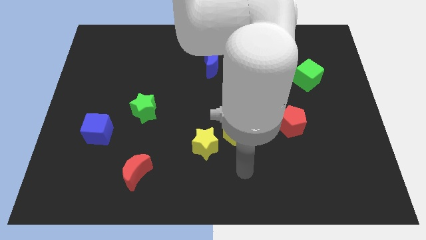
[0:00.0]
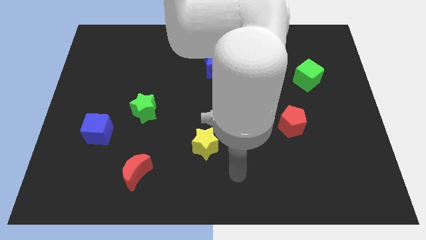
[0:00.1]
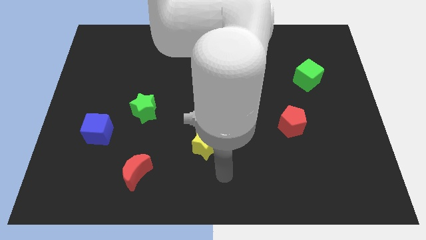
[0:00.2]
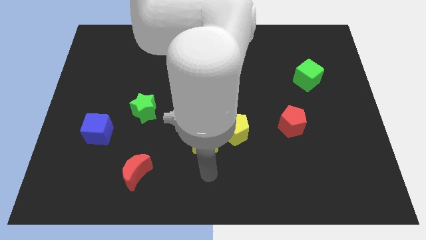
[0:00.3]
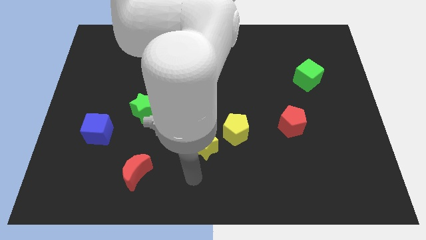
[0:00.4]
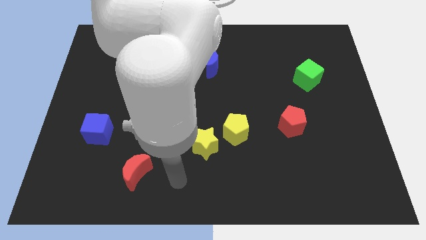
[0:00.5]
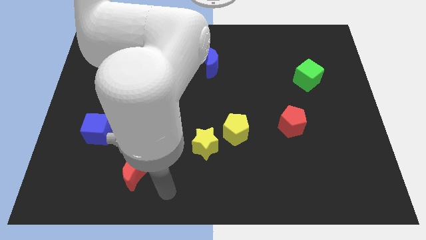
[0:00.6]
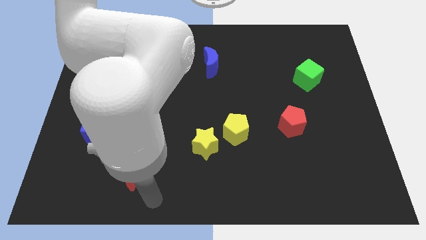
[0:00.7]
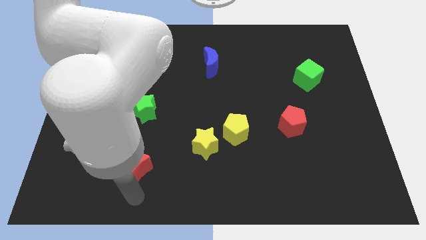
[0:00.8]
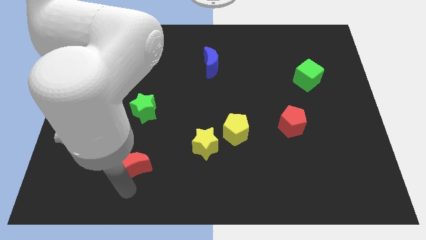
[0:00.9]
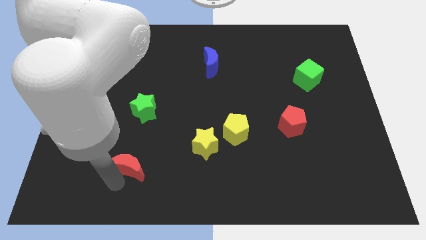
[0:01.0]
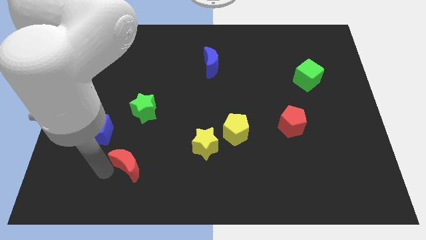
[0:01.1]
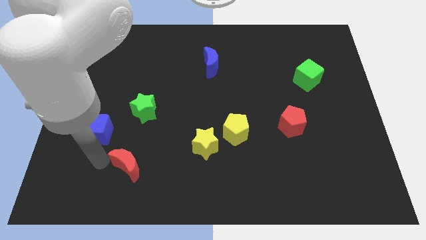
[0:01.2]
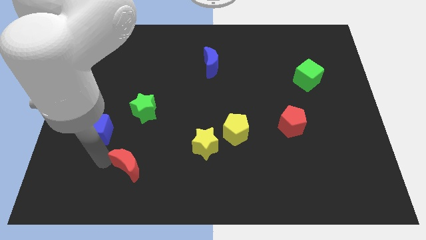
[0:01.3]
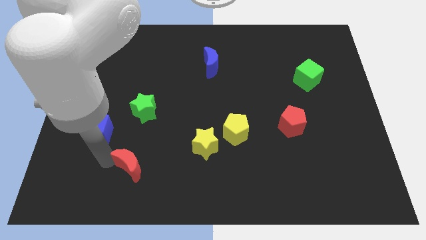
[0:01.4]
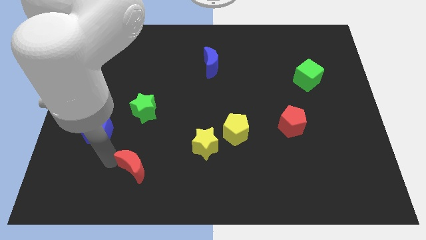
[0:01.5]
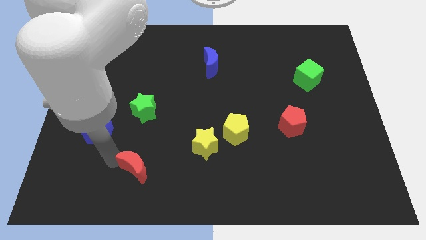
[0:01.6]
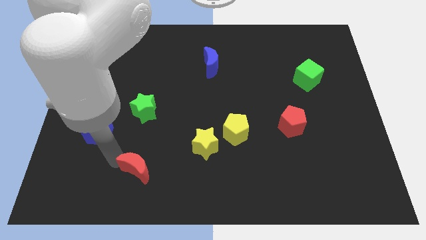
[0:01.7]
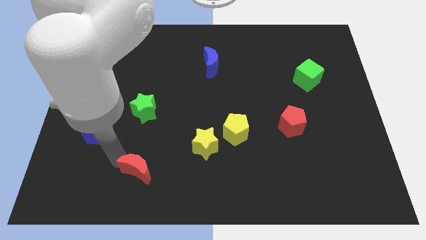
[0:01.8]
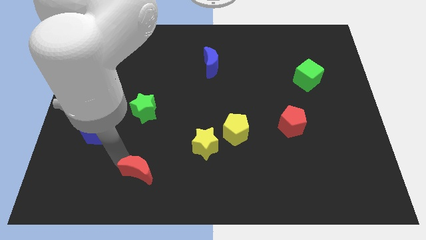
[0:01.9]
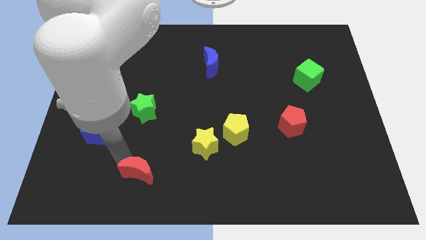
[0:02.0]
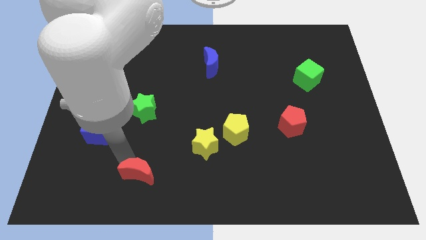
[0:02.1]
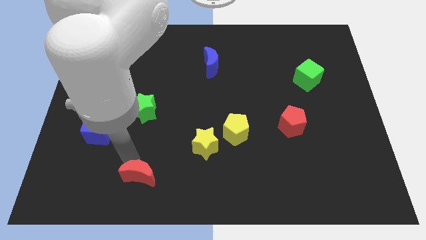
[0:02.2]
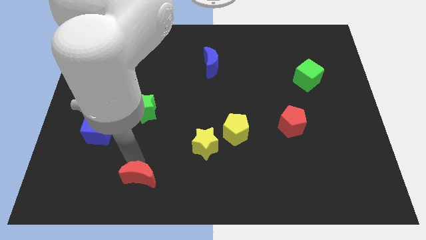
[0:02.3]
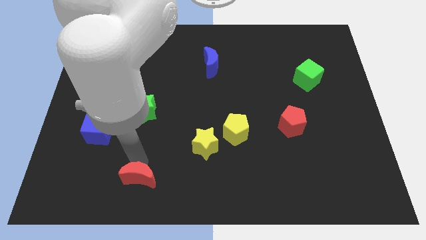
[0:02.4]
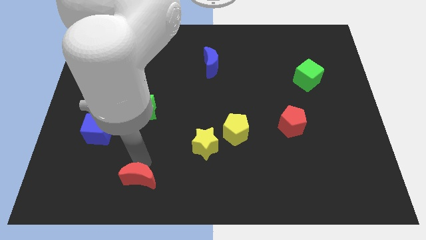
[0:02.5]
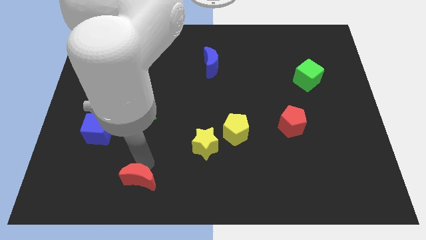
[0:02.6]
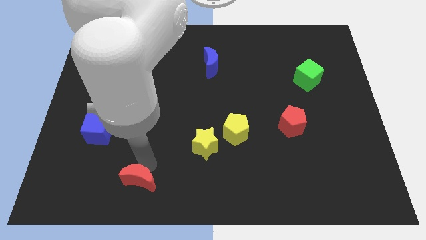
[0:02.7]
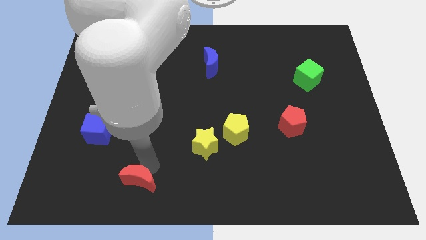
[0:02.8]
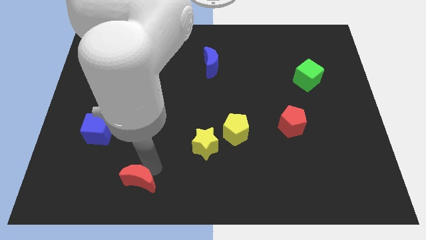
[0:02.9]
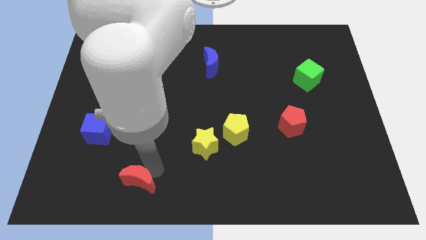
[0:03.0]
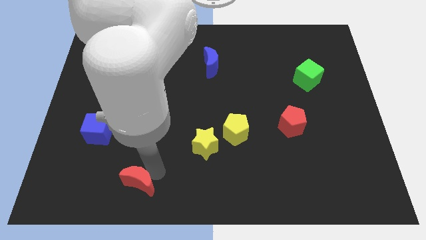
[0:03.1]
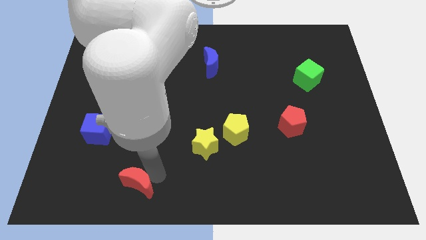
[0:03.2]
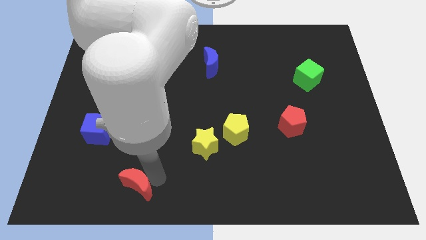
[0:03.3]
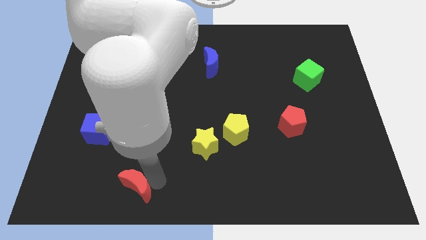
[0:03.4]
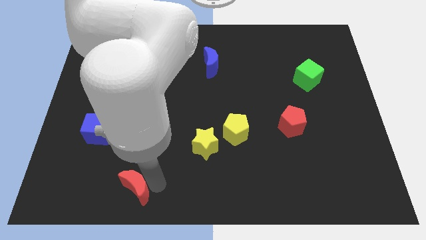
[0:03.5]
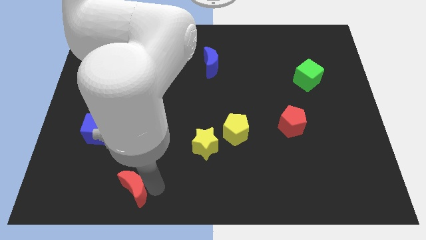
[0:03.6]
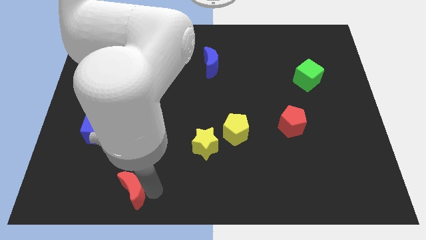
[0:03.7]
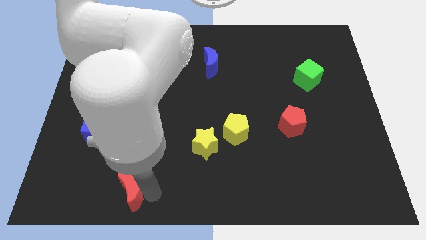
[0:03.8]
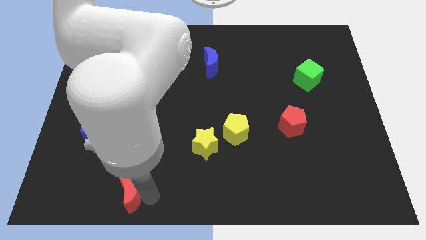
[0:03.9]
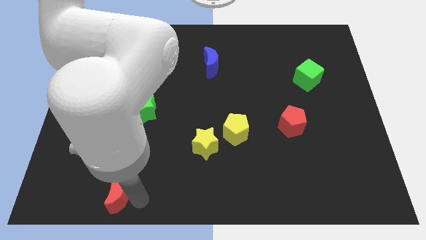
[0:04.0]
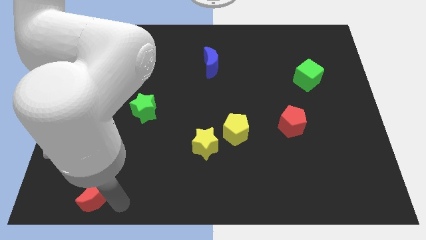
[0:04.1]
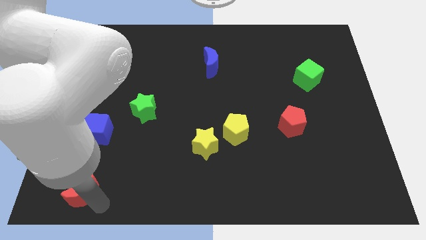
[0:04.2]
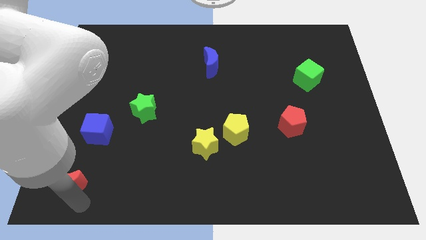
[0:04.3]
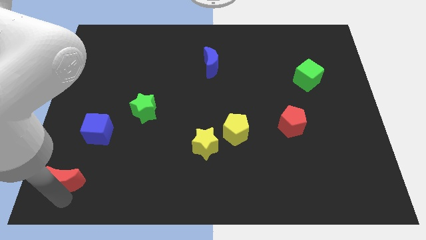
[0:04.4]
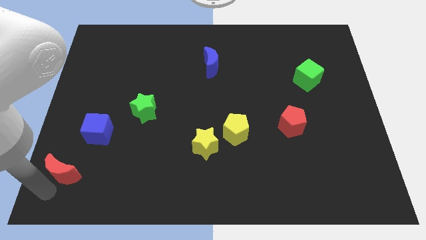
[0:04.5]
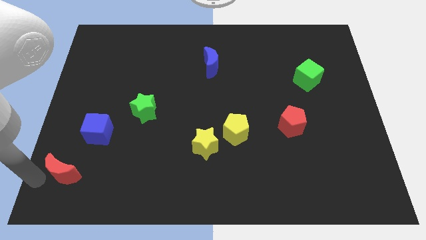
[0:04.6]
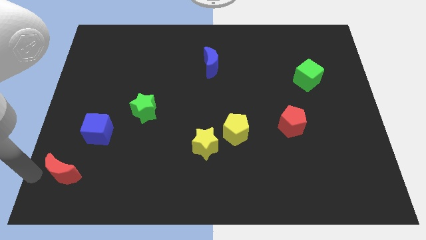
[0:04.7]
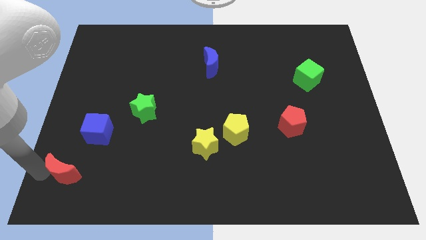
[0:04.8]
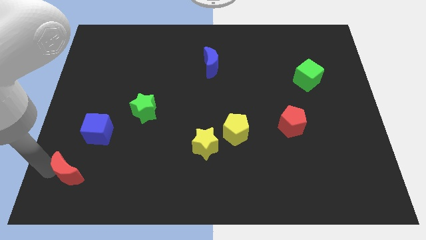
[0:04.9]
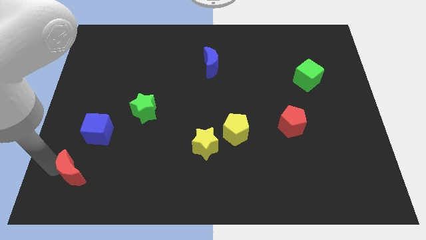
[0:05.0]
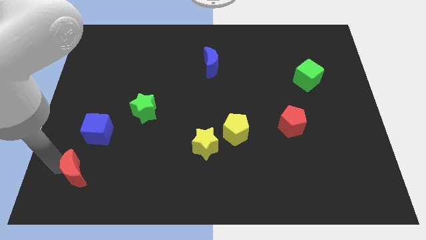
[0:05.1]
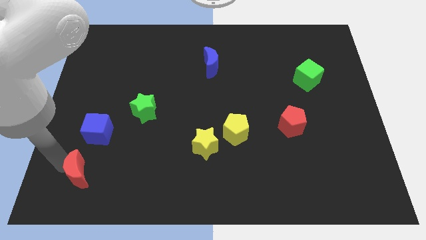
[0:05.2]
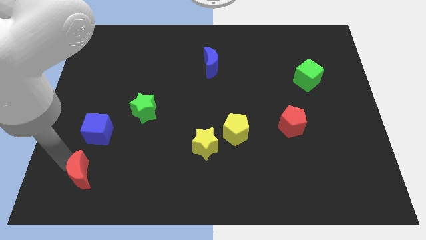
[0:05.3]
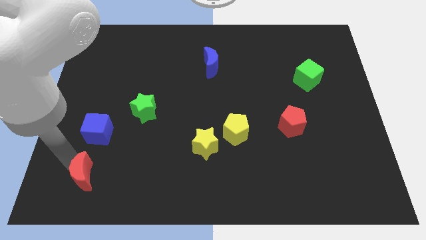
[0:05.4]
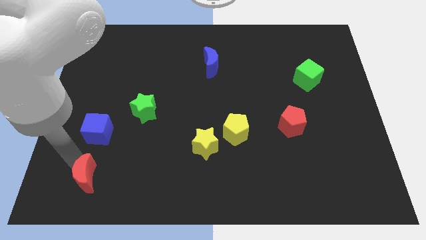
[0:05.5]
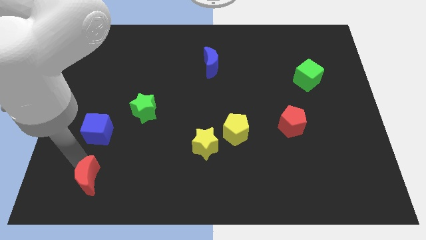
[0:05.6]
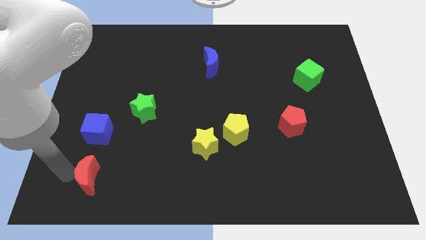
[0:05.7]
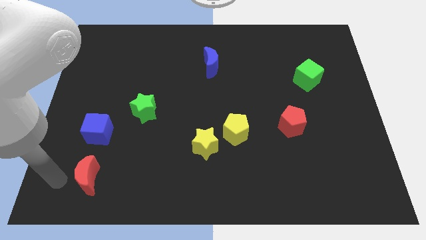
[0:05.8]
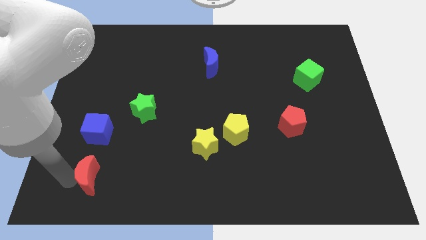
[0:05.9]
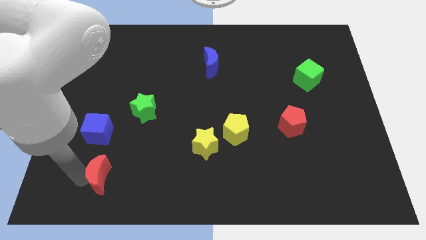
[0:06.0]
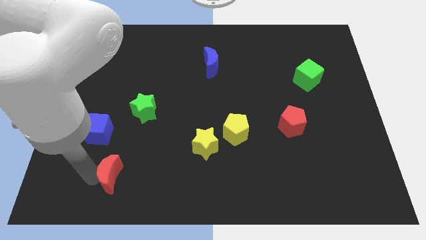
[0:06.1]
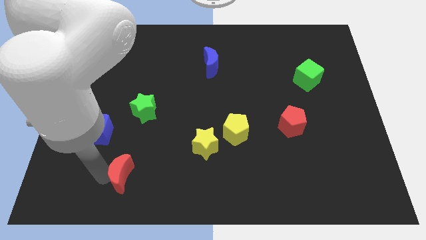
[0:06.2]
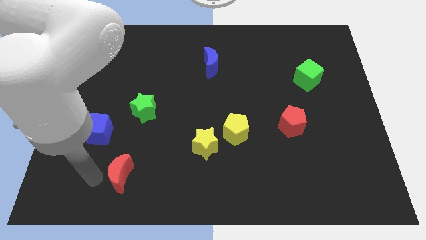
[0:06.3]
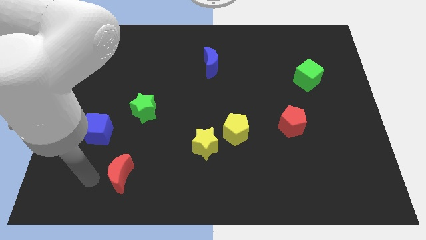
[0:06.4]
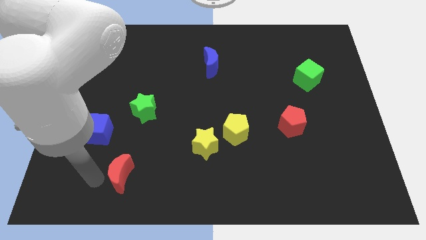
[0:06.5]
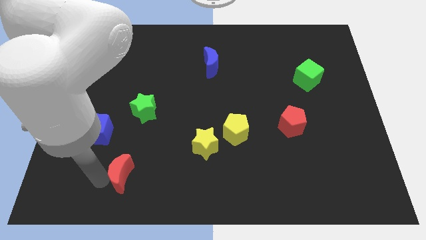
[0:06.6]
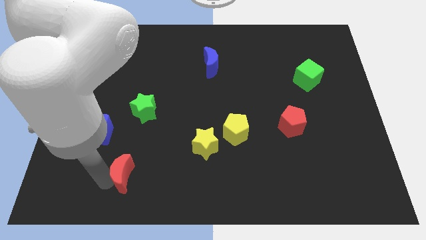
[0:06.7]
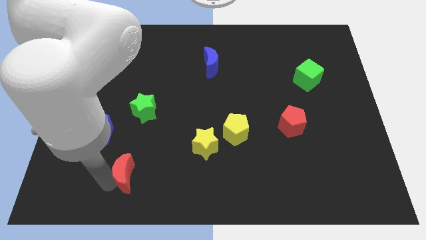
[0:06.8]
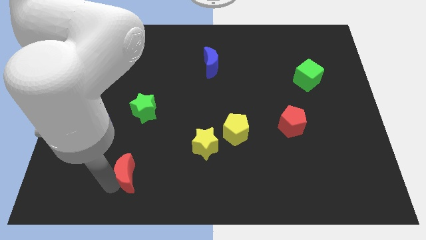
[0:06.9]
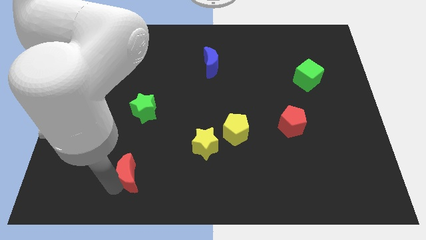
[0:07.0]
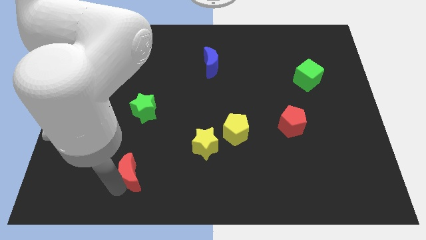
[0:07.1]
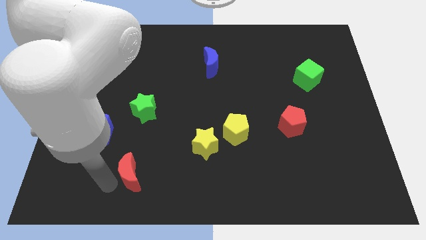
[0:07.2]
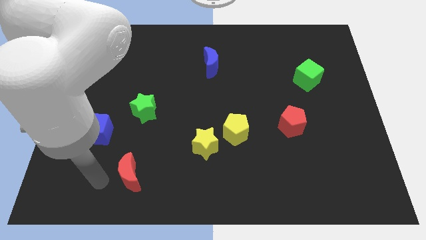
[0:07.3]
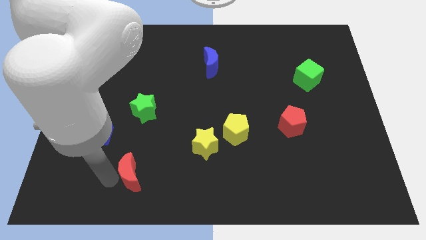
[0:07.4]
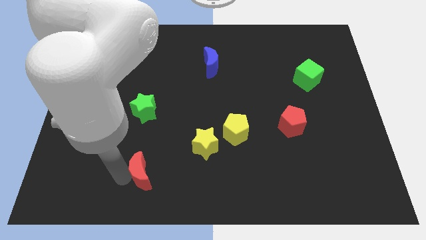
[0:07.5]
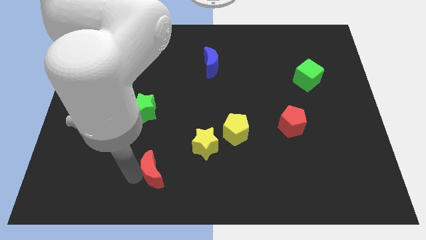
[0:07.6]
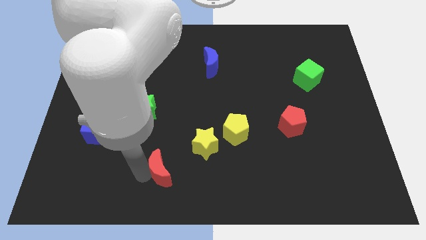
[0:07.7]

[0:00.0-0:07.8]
slide the red moon diagonally down and to the left of the yellow star

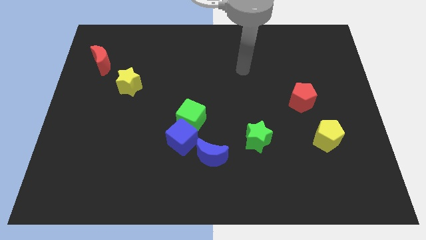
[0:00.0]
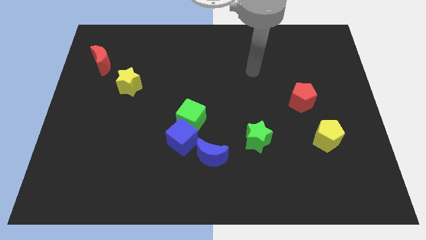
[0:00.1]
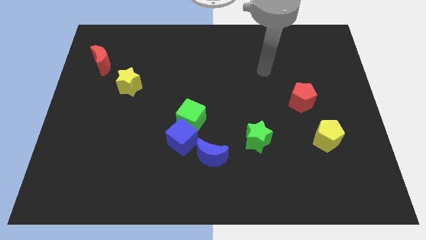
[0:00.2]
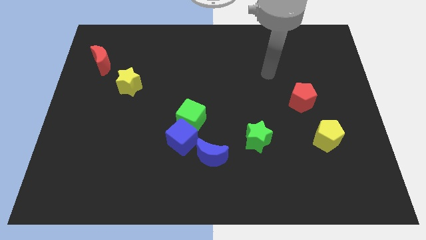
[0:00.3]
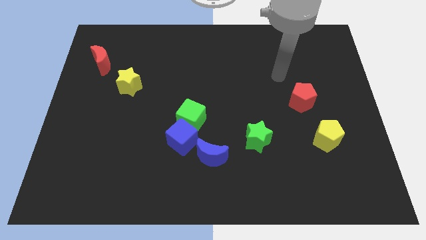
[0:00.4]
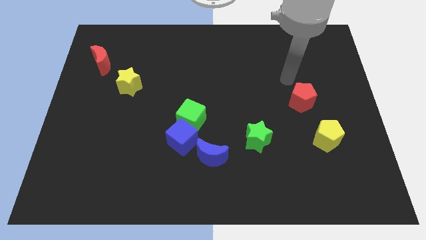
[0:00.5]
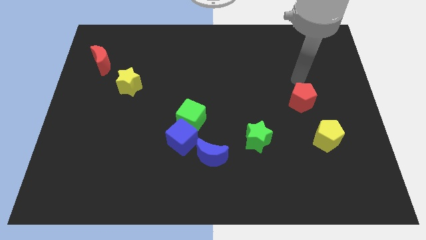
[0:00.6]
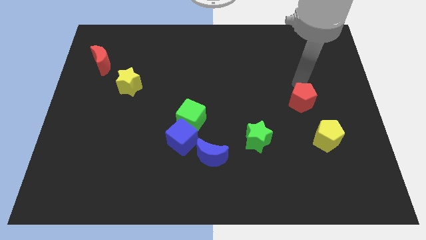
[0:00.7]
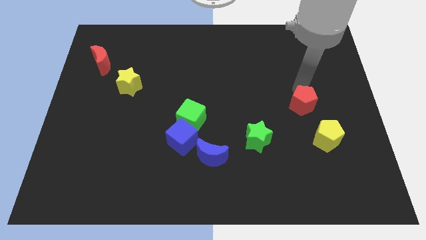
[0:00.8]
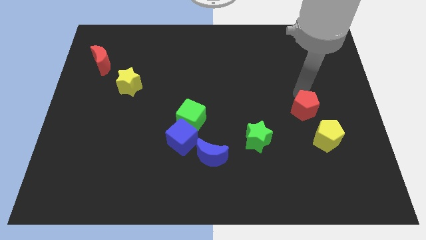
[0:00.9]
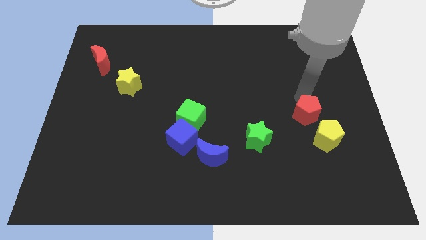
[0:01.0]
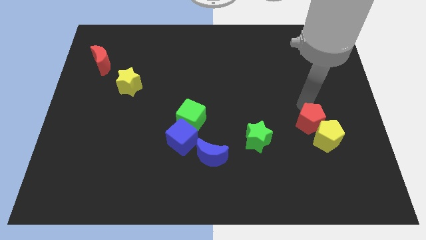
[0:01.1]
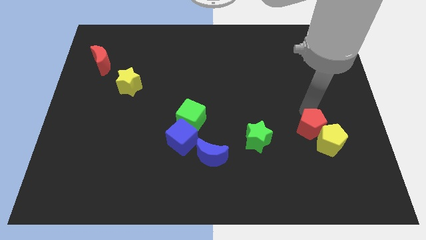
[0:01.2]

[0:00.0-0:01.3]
slide the red pentagon to the right side of the green star
